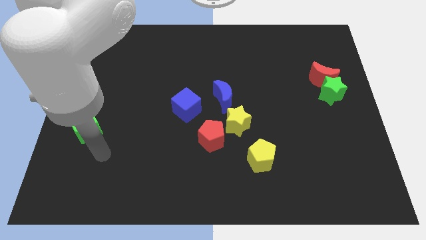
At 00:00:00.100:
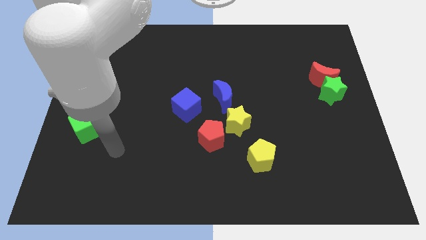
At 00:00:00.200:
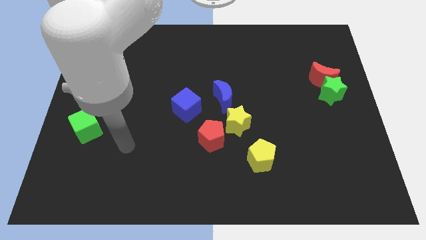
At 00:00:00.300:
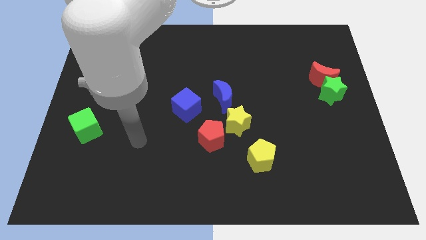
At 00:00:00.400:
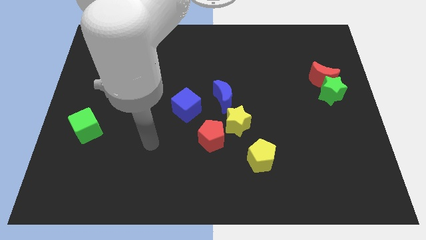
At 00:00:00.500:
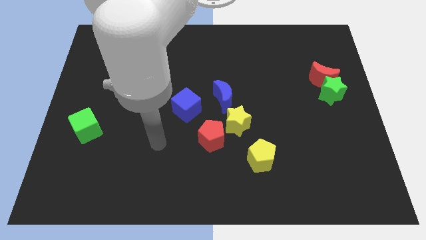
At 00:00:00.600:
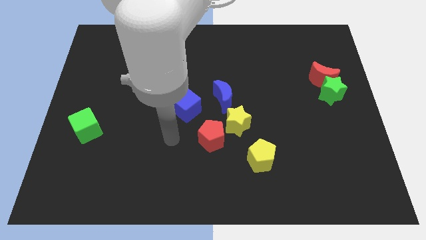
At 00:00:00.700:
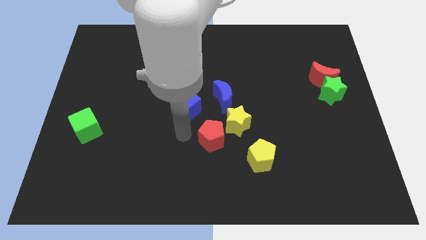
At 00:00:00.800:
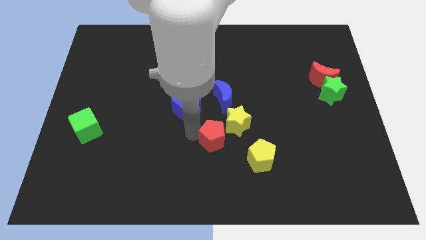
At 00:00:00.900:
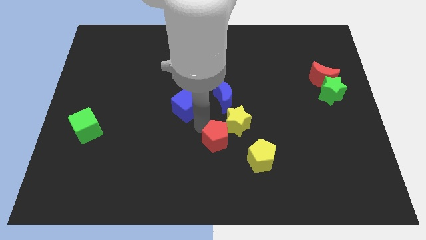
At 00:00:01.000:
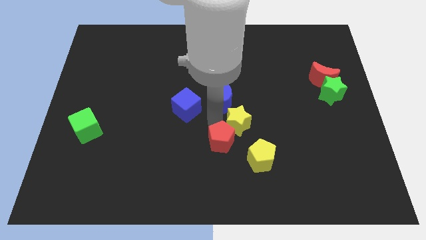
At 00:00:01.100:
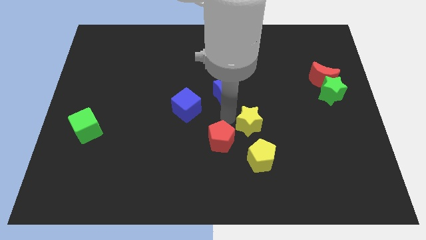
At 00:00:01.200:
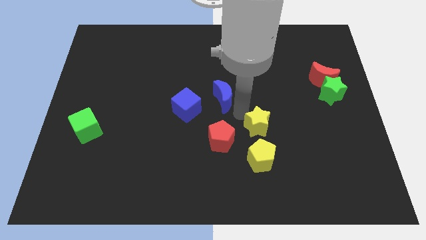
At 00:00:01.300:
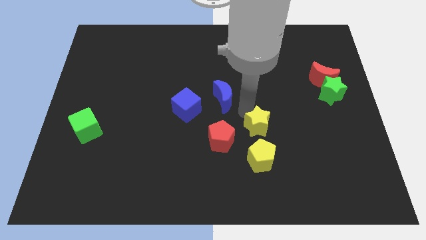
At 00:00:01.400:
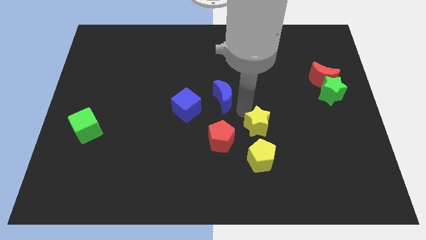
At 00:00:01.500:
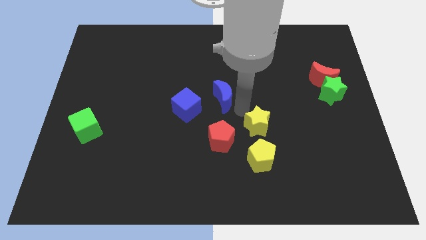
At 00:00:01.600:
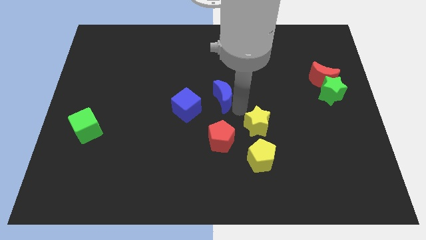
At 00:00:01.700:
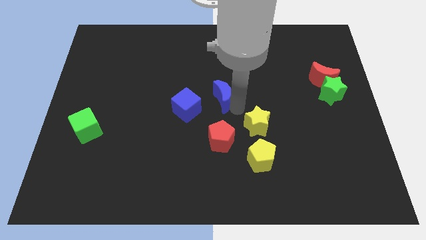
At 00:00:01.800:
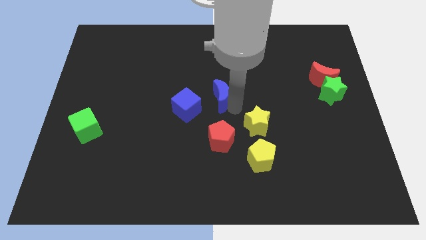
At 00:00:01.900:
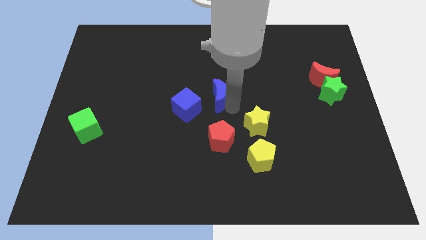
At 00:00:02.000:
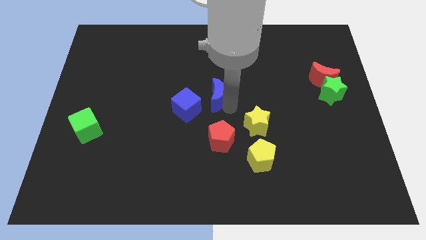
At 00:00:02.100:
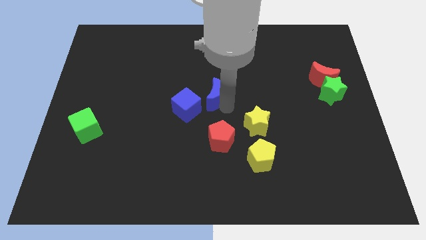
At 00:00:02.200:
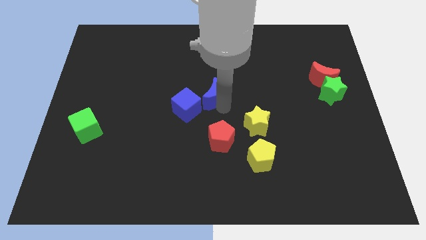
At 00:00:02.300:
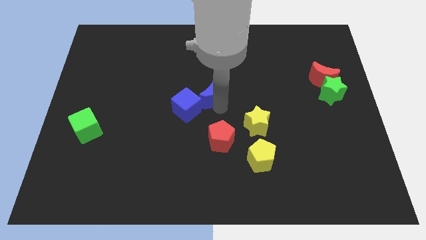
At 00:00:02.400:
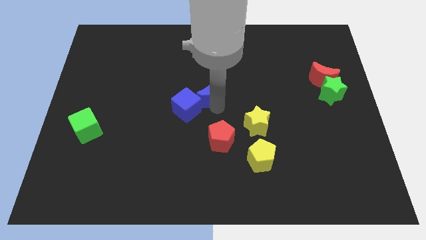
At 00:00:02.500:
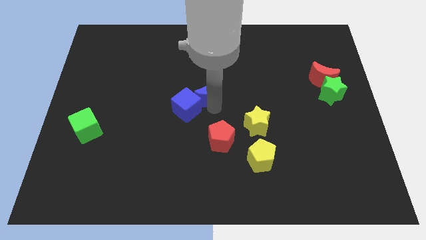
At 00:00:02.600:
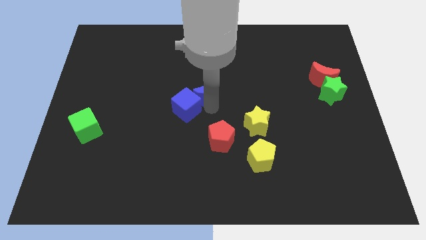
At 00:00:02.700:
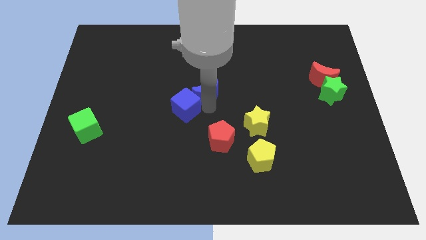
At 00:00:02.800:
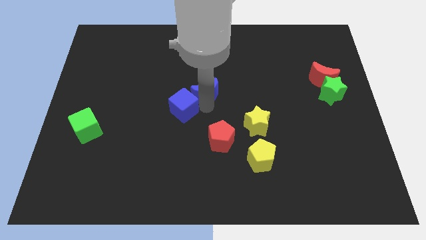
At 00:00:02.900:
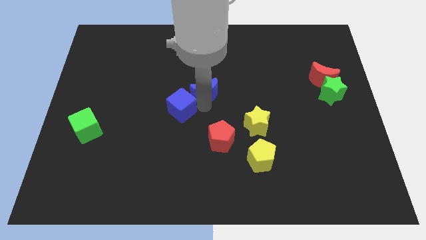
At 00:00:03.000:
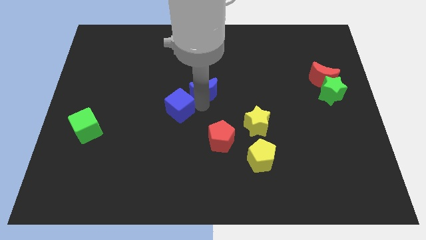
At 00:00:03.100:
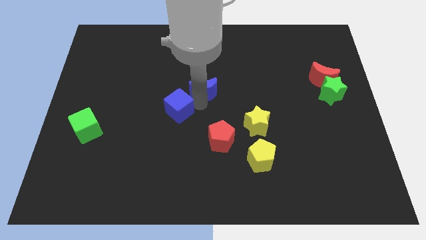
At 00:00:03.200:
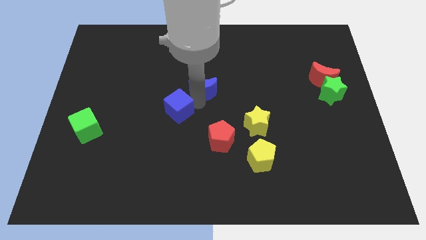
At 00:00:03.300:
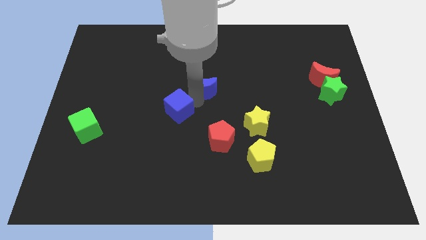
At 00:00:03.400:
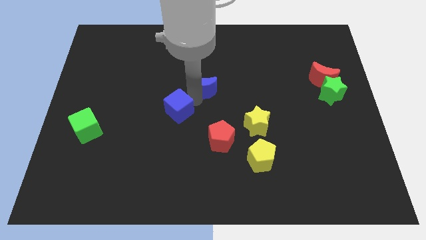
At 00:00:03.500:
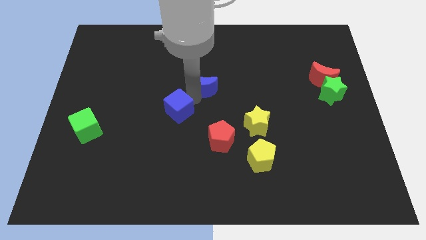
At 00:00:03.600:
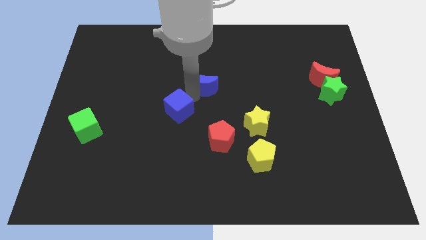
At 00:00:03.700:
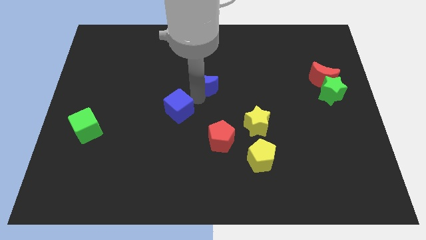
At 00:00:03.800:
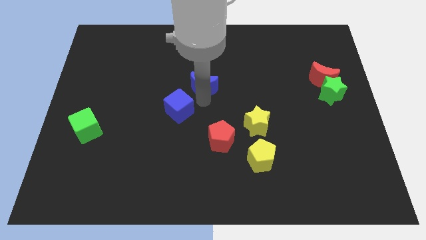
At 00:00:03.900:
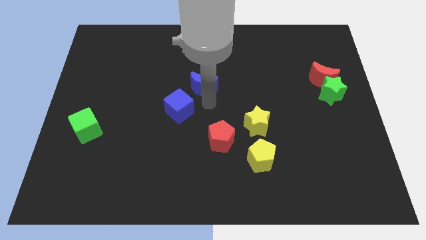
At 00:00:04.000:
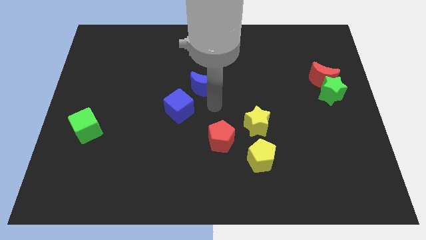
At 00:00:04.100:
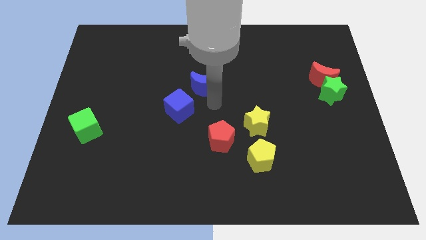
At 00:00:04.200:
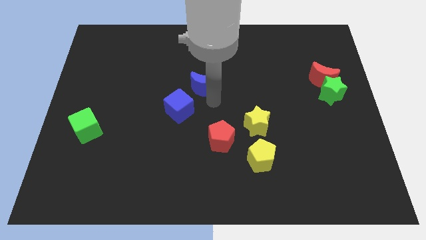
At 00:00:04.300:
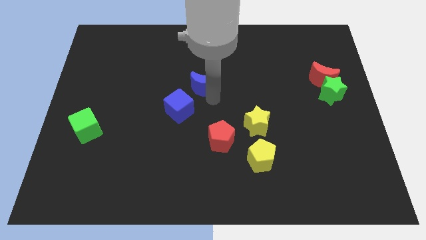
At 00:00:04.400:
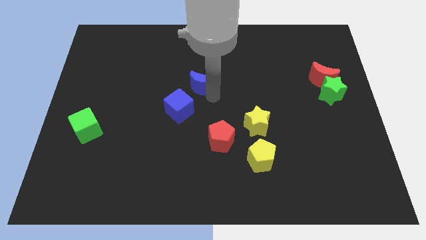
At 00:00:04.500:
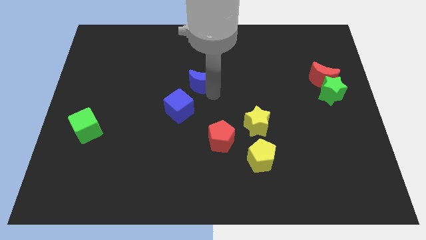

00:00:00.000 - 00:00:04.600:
push the blue moon somewhat diagonally upwards and to the left

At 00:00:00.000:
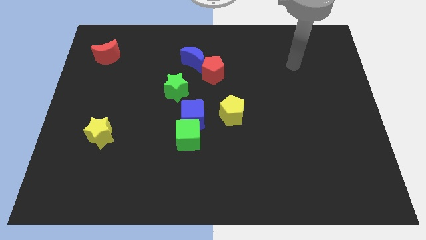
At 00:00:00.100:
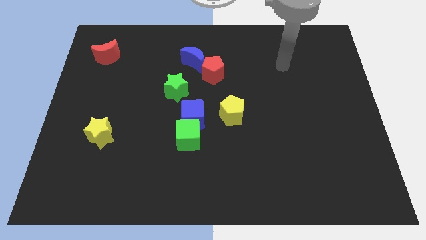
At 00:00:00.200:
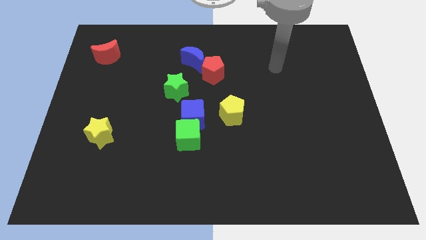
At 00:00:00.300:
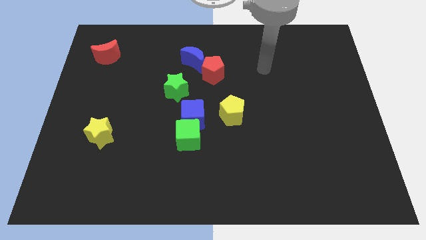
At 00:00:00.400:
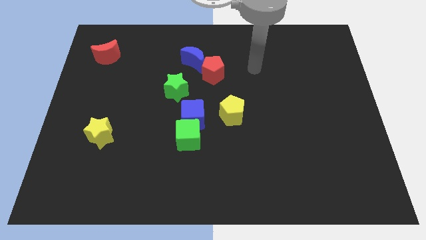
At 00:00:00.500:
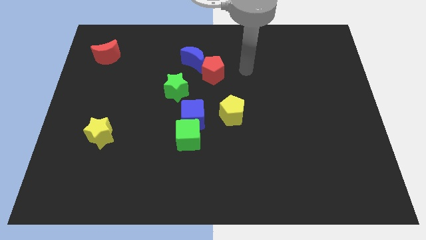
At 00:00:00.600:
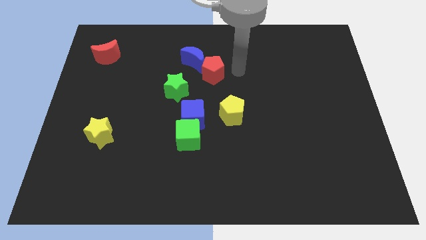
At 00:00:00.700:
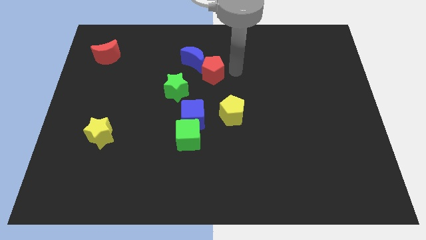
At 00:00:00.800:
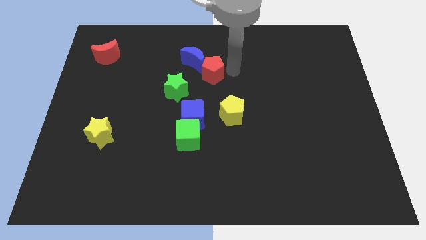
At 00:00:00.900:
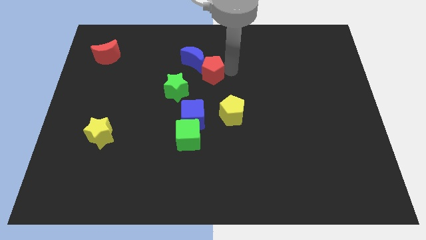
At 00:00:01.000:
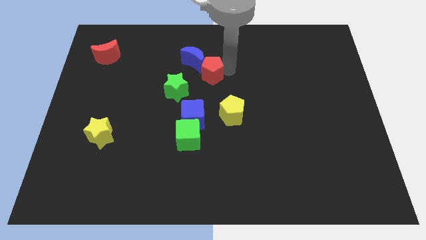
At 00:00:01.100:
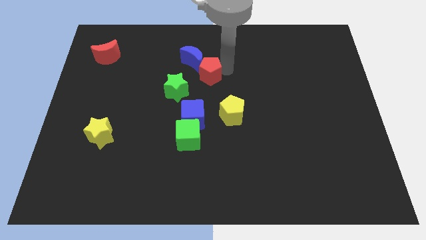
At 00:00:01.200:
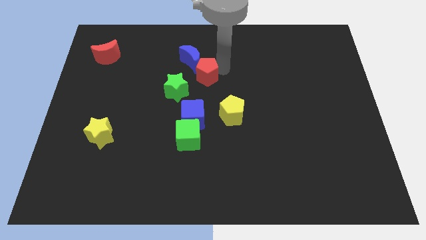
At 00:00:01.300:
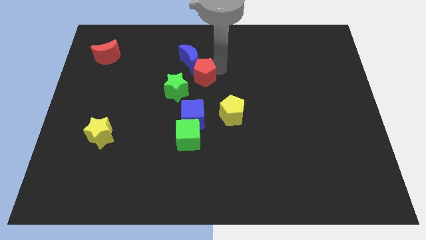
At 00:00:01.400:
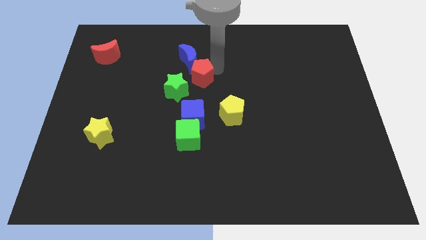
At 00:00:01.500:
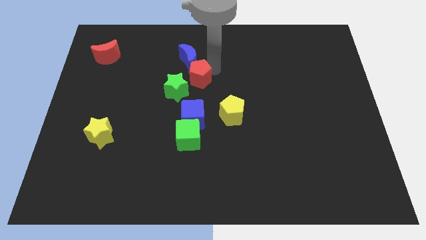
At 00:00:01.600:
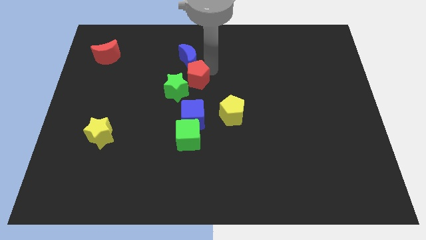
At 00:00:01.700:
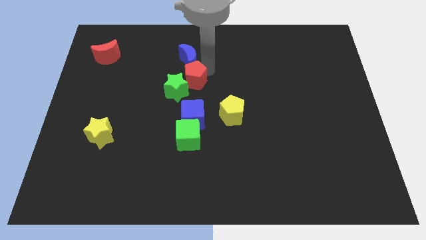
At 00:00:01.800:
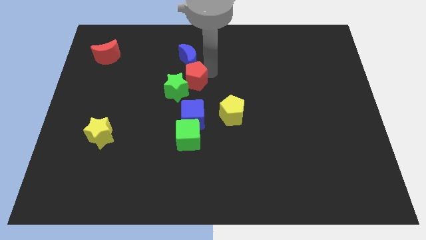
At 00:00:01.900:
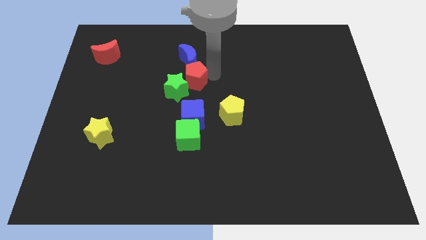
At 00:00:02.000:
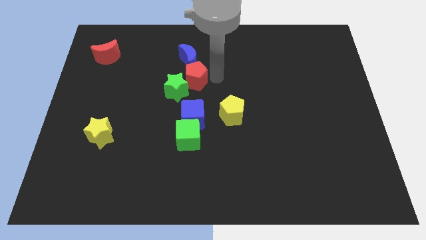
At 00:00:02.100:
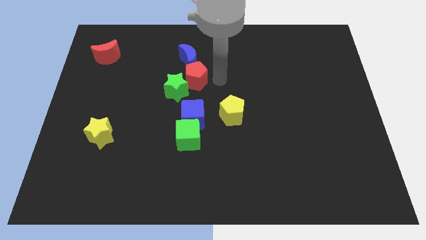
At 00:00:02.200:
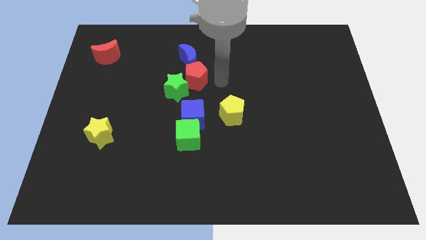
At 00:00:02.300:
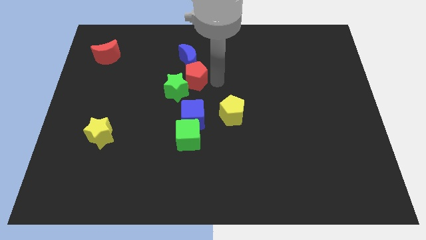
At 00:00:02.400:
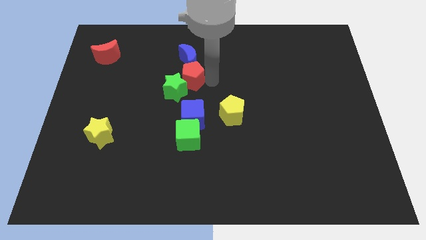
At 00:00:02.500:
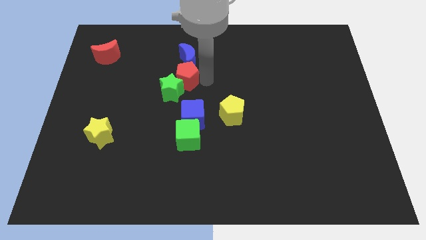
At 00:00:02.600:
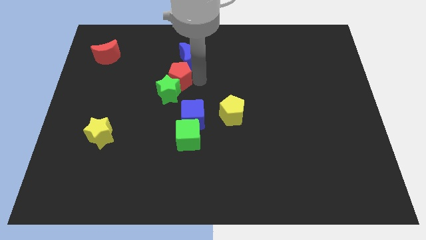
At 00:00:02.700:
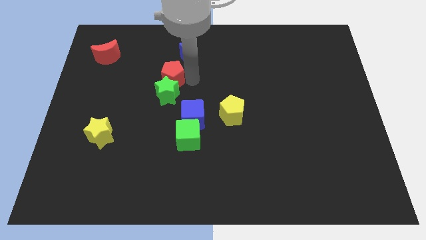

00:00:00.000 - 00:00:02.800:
push the red pentagon slightly downwards and to the left diagonally

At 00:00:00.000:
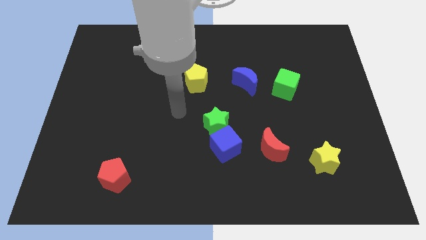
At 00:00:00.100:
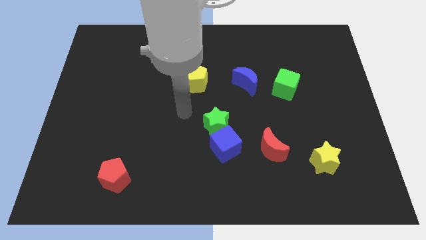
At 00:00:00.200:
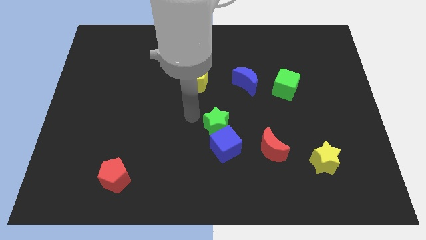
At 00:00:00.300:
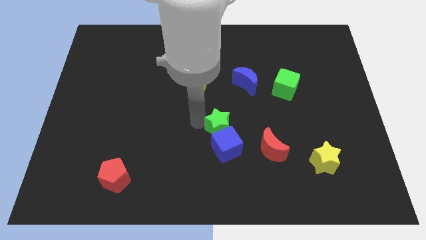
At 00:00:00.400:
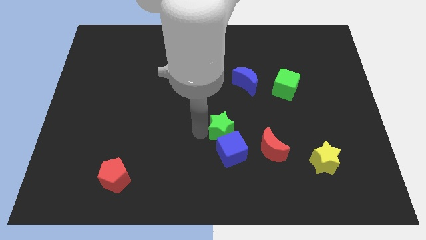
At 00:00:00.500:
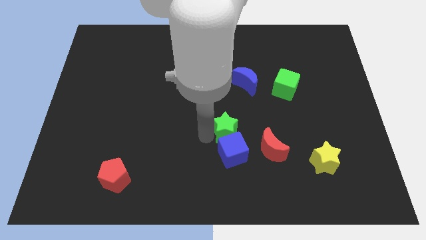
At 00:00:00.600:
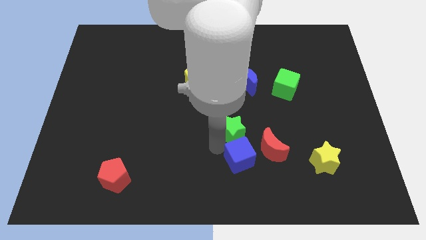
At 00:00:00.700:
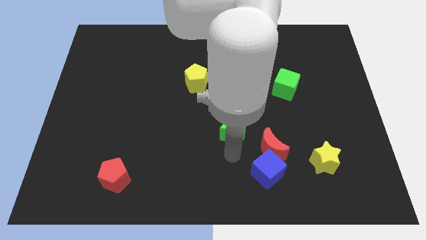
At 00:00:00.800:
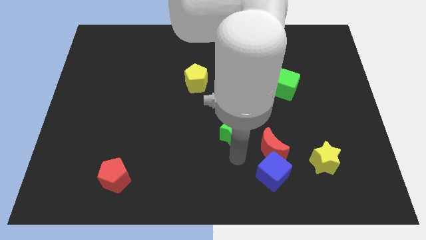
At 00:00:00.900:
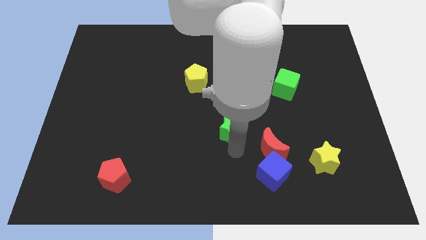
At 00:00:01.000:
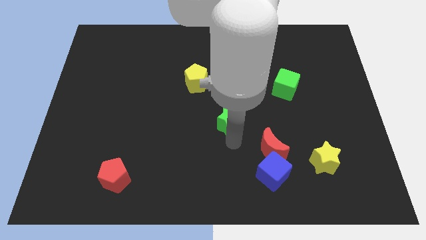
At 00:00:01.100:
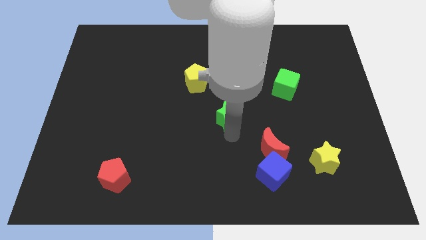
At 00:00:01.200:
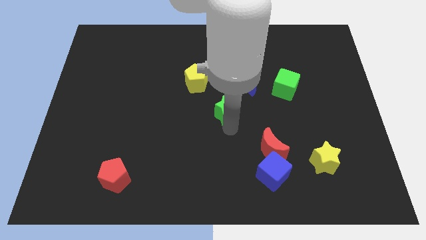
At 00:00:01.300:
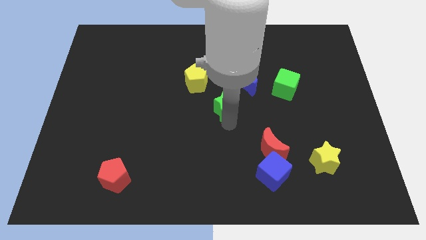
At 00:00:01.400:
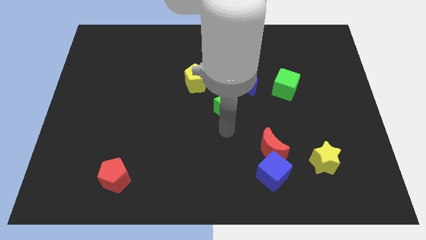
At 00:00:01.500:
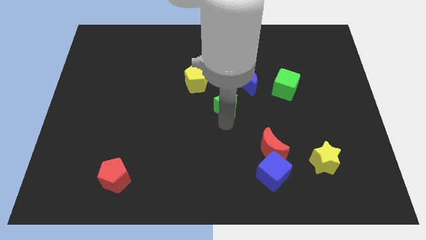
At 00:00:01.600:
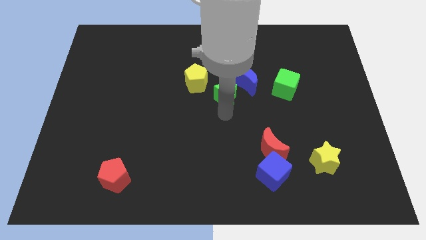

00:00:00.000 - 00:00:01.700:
move the green star a little bit up
